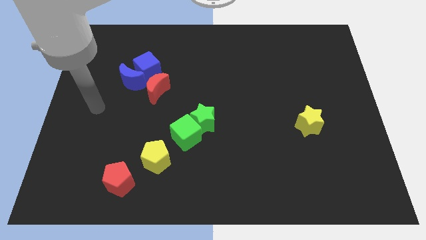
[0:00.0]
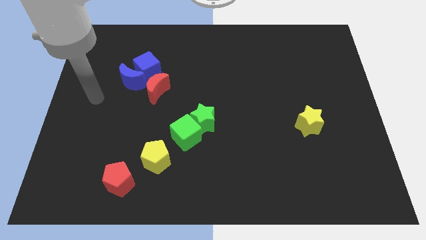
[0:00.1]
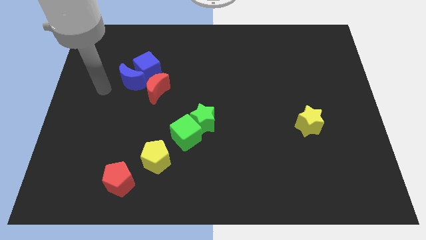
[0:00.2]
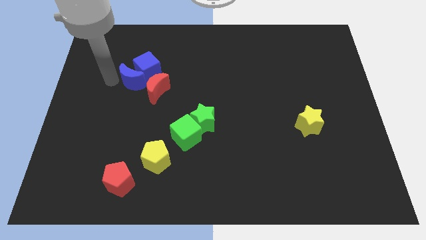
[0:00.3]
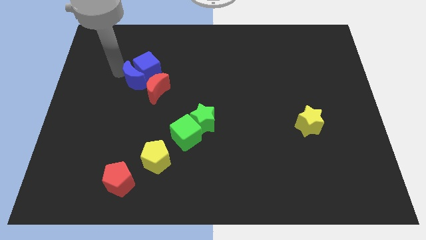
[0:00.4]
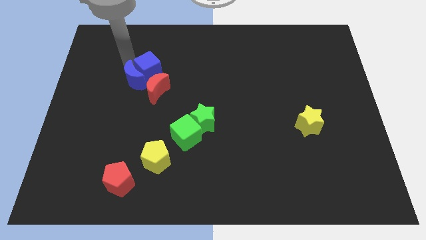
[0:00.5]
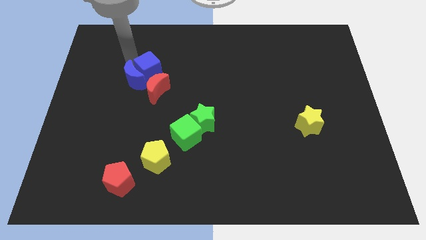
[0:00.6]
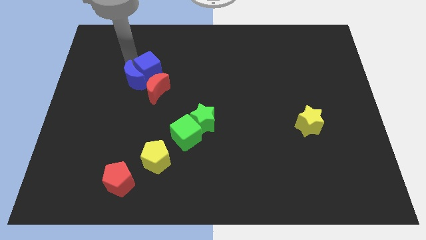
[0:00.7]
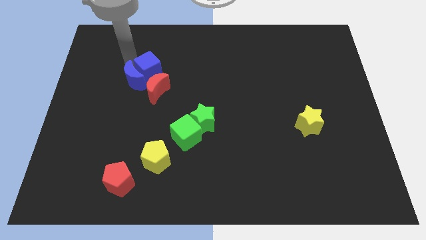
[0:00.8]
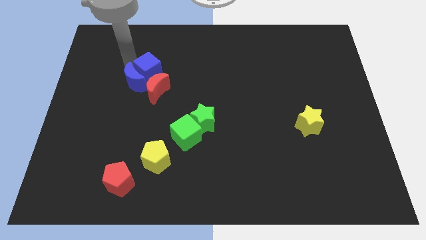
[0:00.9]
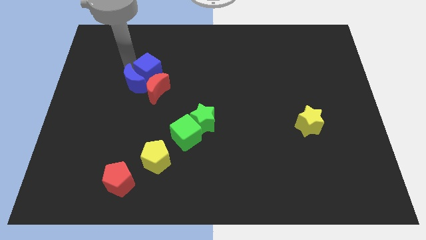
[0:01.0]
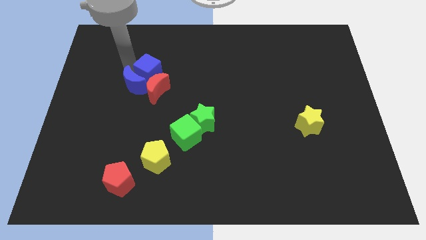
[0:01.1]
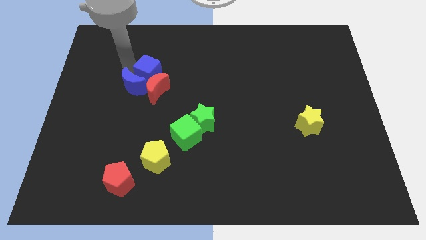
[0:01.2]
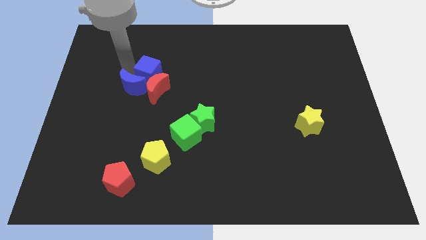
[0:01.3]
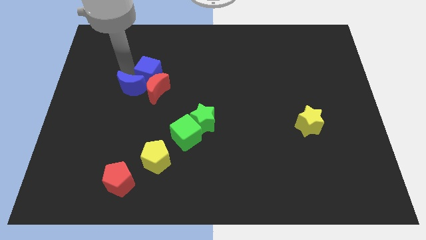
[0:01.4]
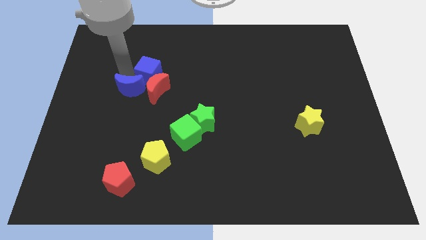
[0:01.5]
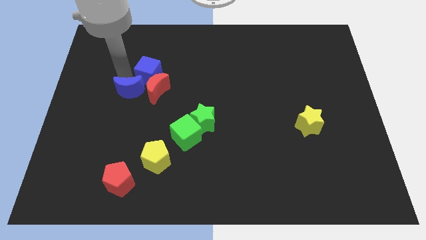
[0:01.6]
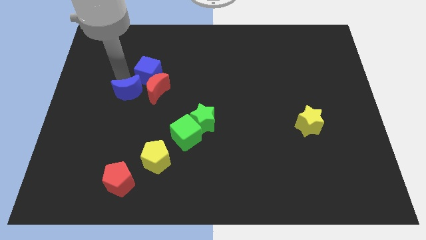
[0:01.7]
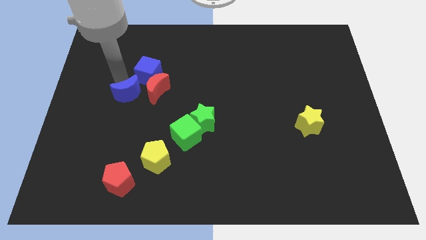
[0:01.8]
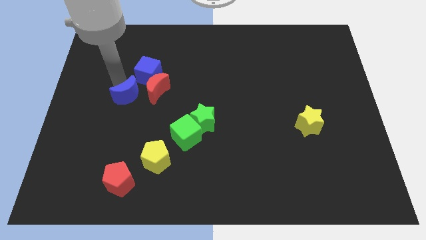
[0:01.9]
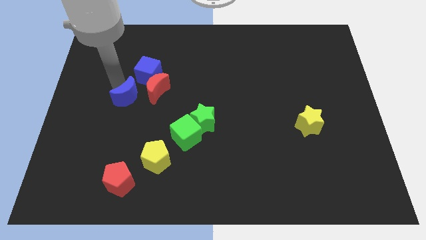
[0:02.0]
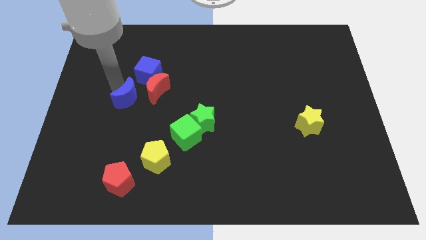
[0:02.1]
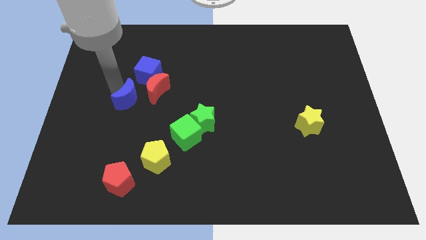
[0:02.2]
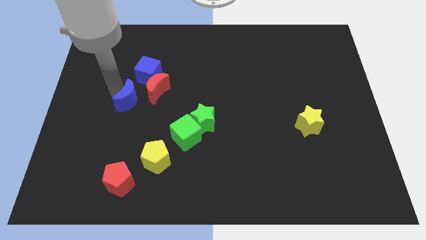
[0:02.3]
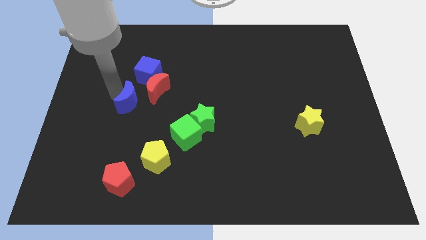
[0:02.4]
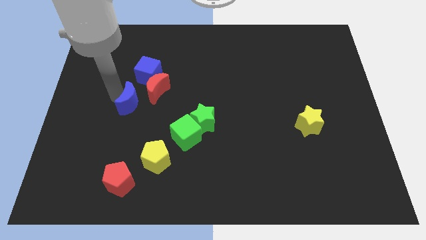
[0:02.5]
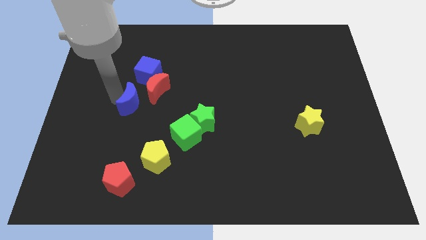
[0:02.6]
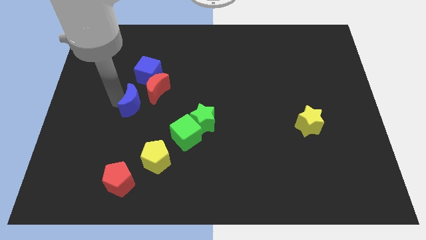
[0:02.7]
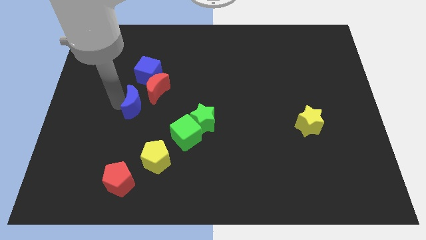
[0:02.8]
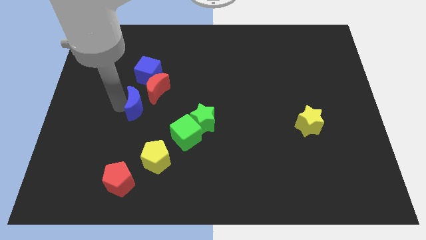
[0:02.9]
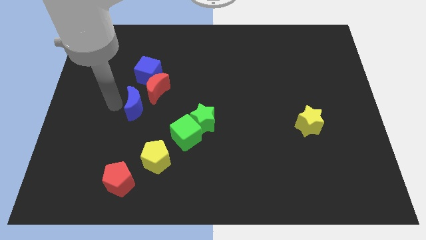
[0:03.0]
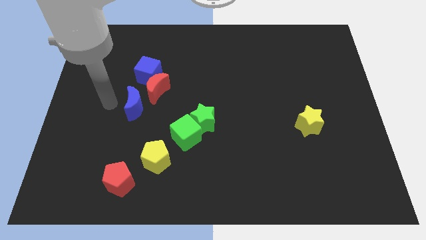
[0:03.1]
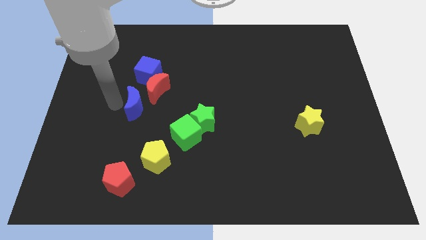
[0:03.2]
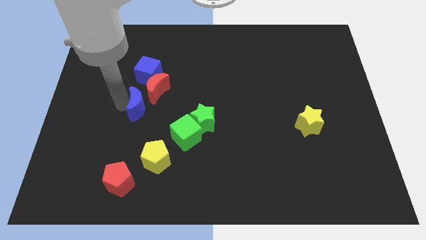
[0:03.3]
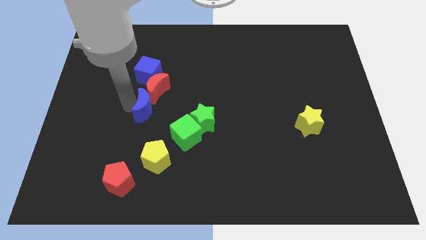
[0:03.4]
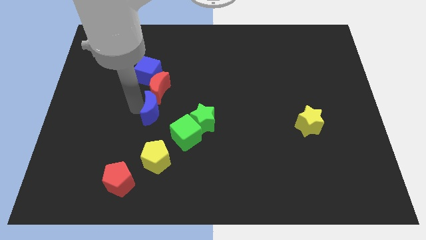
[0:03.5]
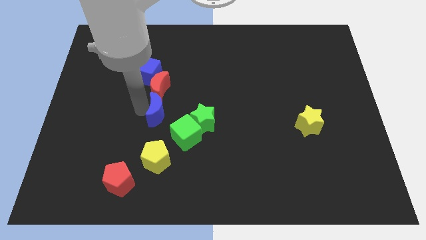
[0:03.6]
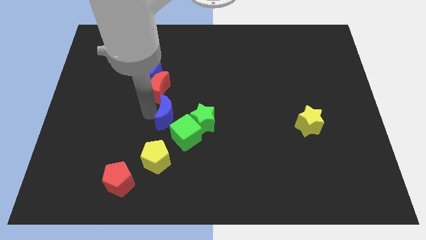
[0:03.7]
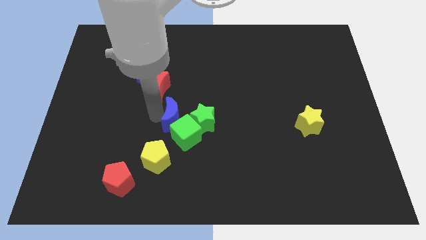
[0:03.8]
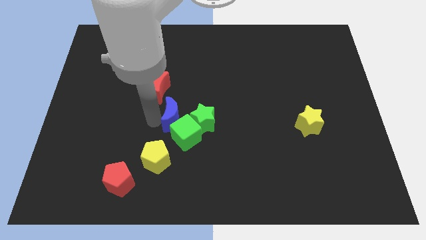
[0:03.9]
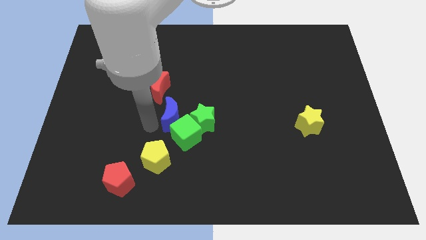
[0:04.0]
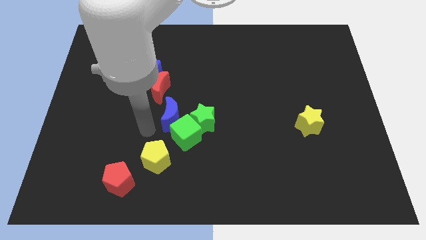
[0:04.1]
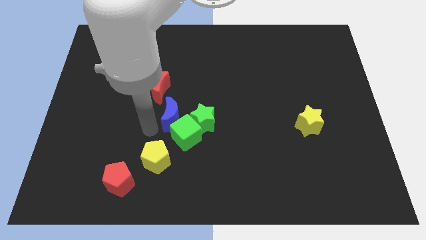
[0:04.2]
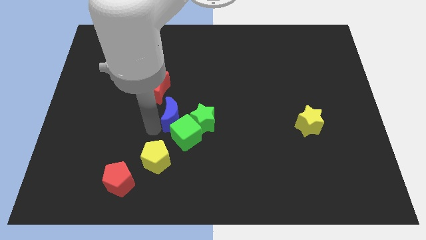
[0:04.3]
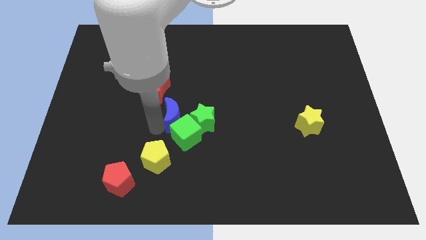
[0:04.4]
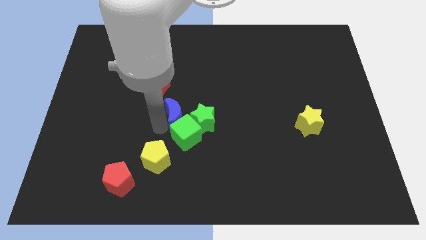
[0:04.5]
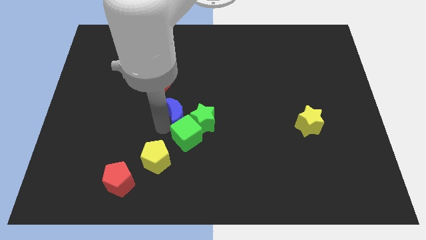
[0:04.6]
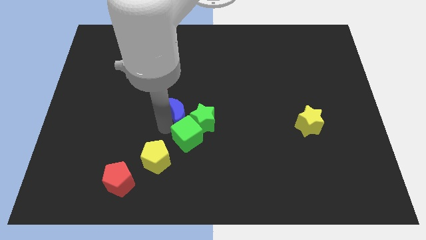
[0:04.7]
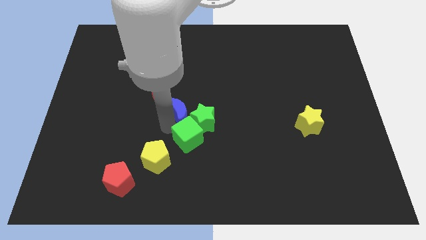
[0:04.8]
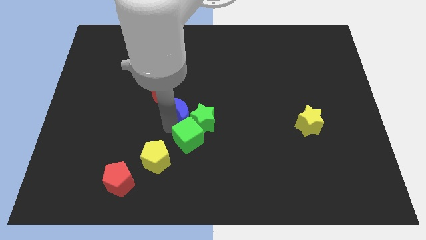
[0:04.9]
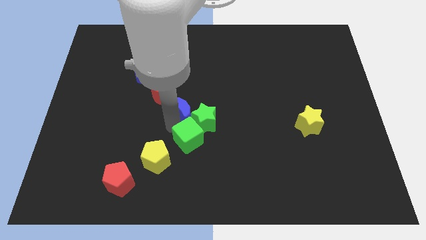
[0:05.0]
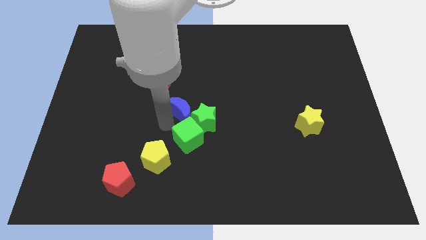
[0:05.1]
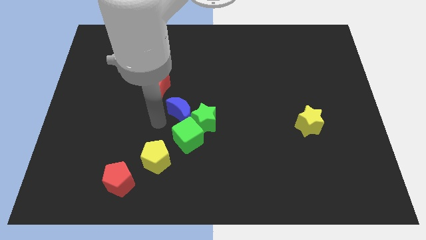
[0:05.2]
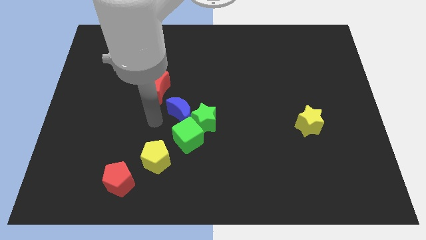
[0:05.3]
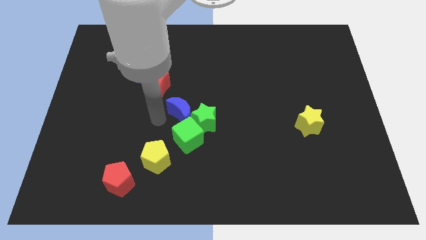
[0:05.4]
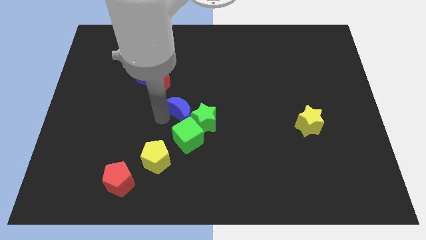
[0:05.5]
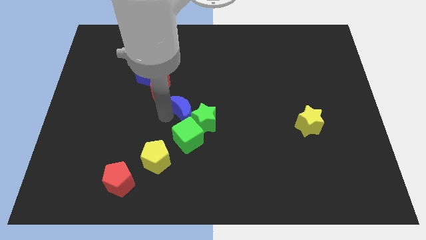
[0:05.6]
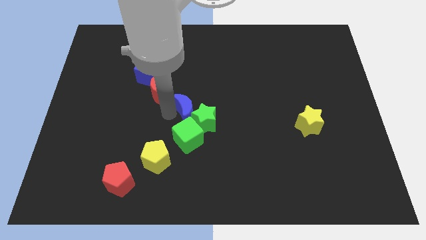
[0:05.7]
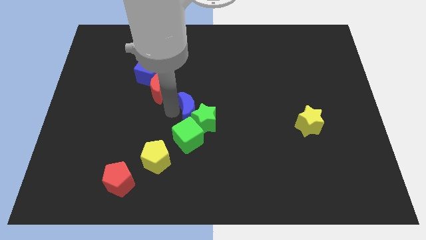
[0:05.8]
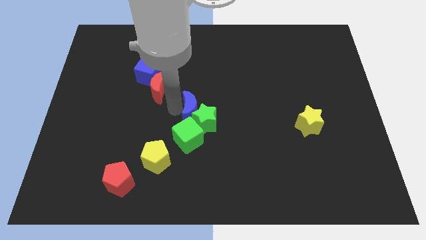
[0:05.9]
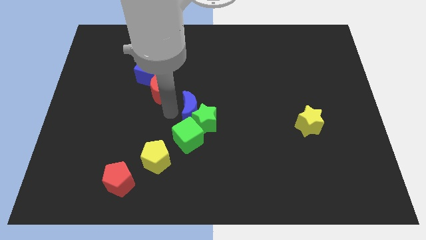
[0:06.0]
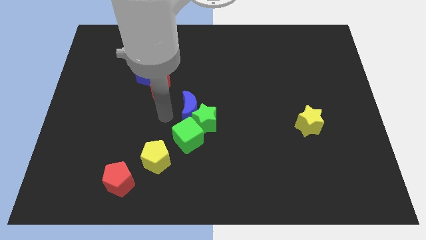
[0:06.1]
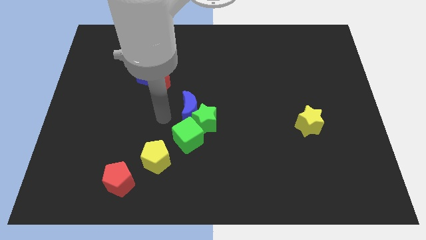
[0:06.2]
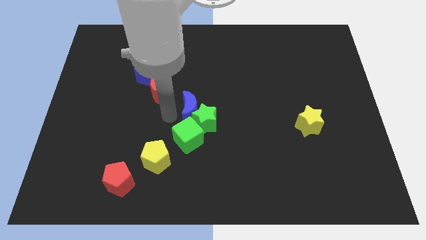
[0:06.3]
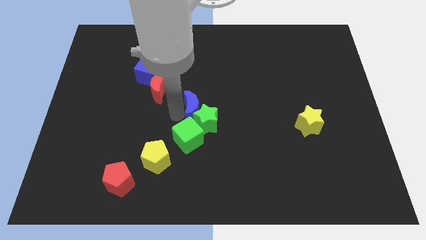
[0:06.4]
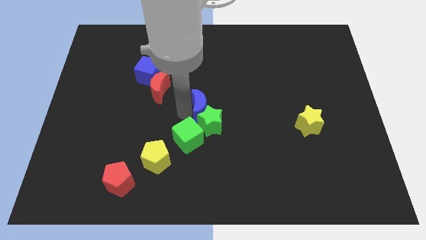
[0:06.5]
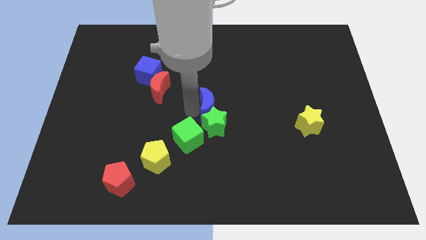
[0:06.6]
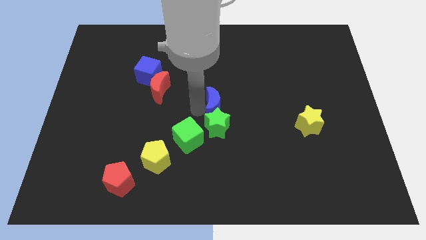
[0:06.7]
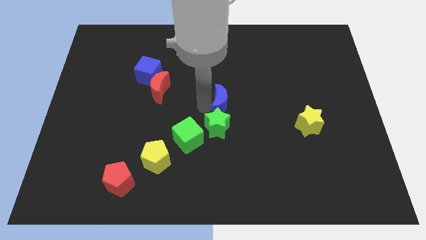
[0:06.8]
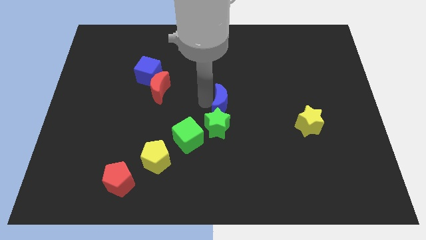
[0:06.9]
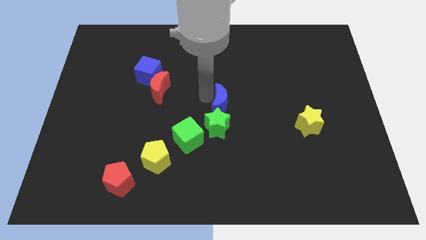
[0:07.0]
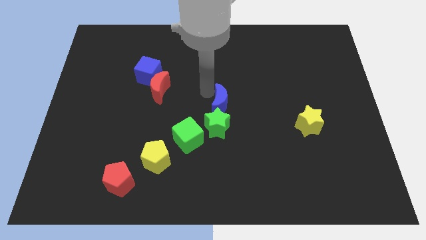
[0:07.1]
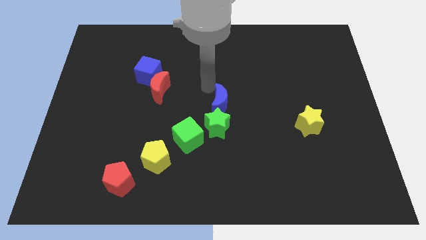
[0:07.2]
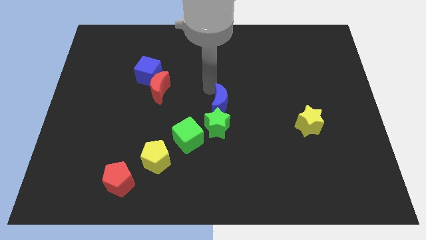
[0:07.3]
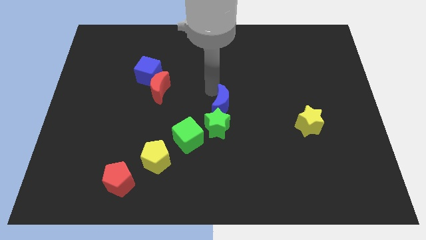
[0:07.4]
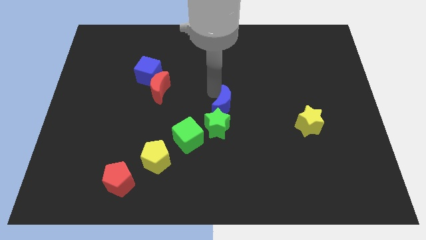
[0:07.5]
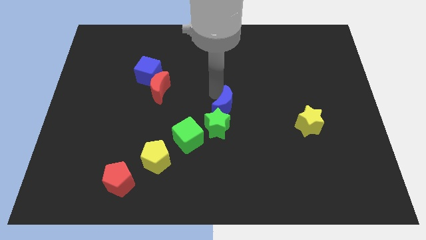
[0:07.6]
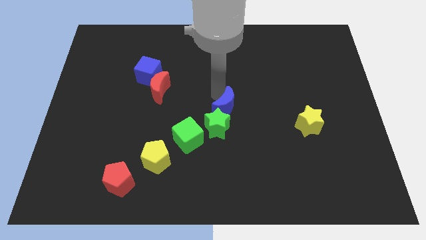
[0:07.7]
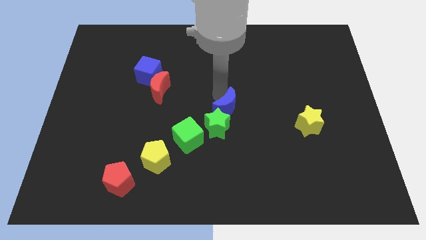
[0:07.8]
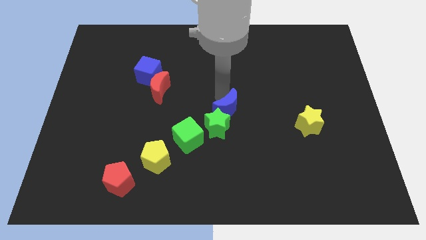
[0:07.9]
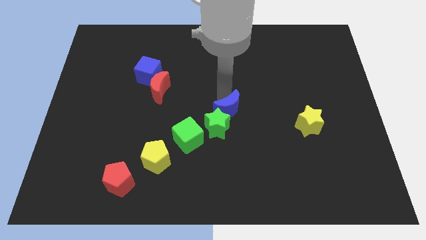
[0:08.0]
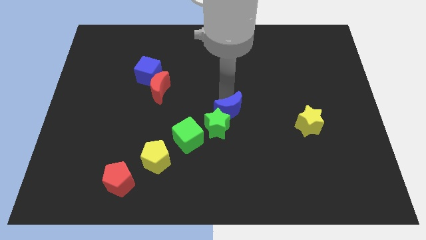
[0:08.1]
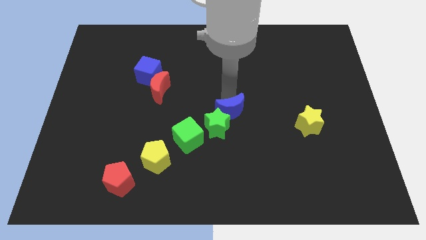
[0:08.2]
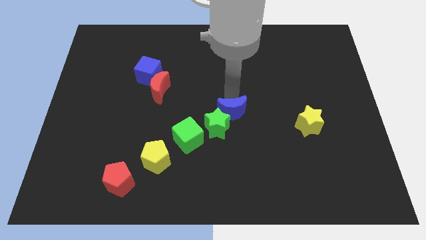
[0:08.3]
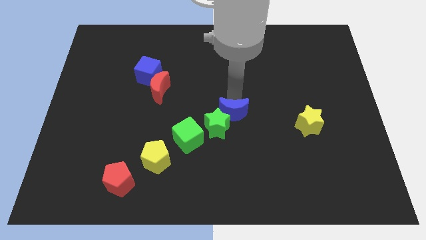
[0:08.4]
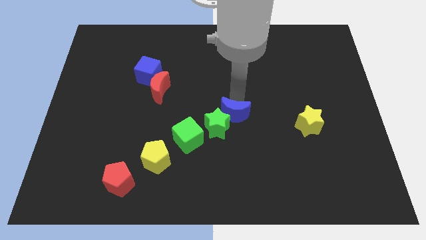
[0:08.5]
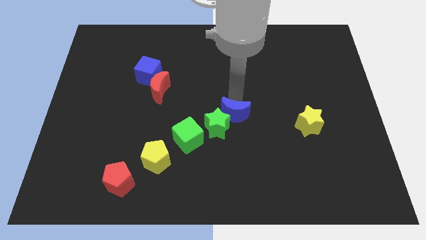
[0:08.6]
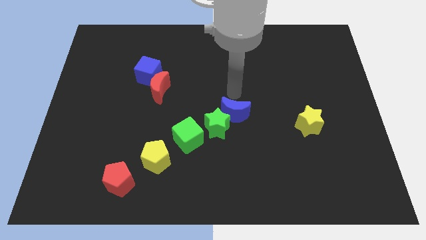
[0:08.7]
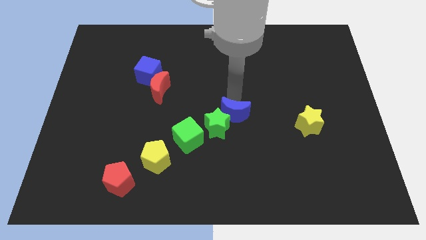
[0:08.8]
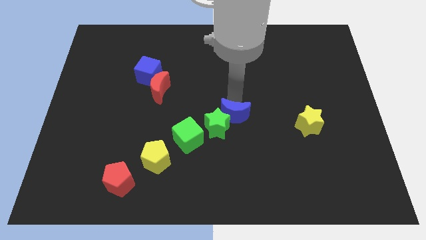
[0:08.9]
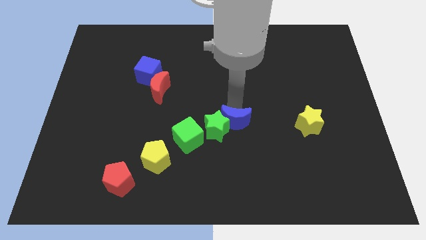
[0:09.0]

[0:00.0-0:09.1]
put the blue moon right of the green cube
